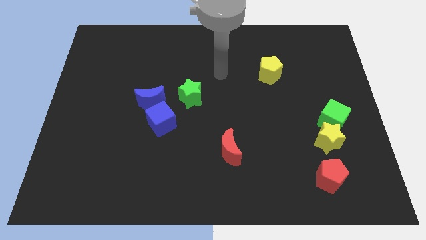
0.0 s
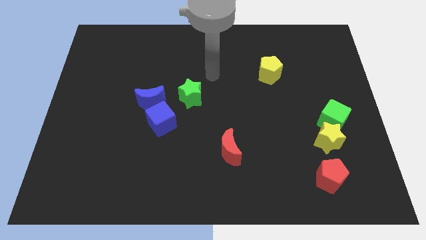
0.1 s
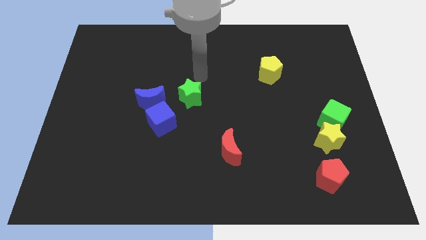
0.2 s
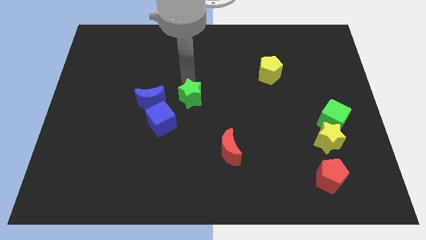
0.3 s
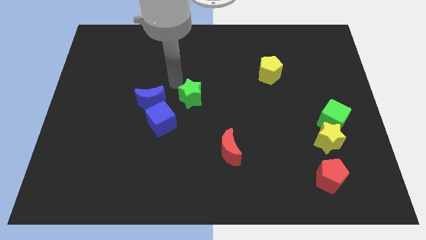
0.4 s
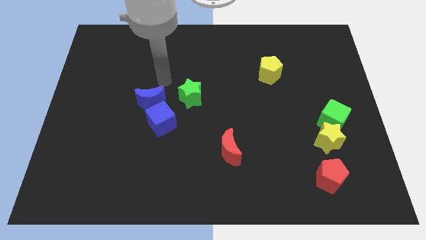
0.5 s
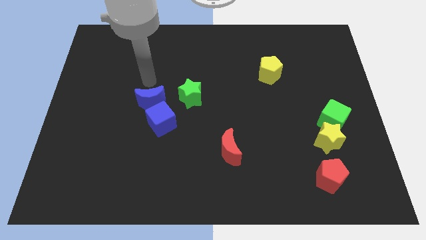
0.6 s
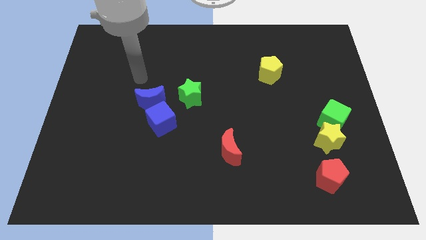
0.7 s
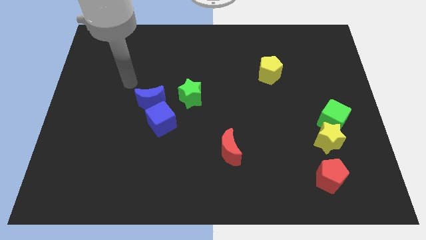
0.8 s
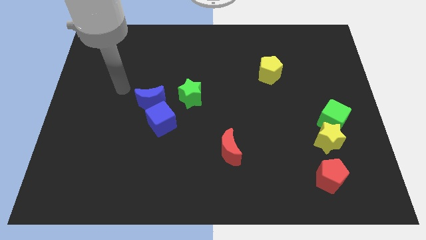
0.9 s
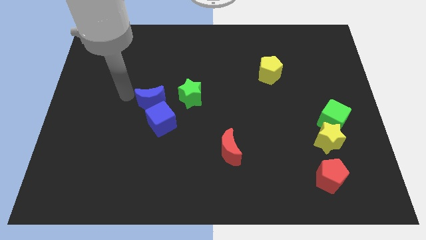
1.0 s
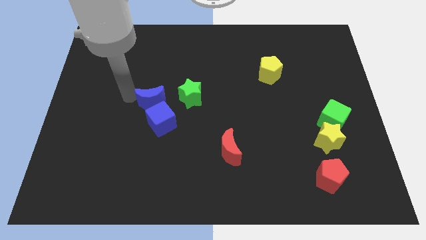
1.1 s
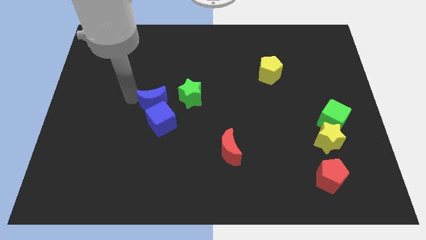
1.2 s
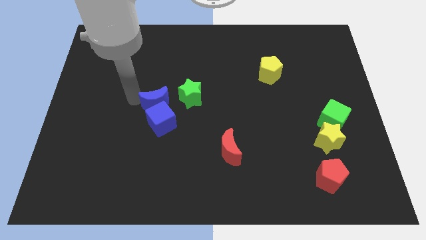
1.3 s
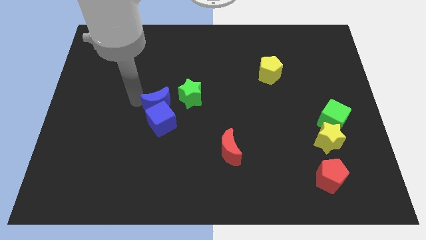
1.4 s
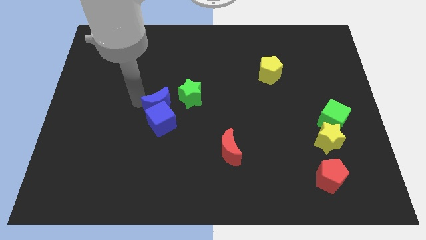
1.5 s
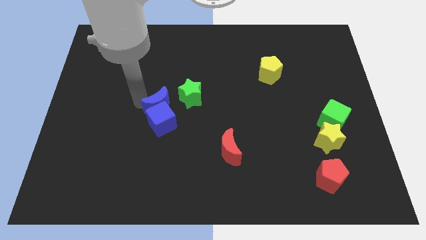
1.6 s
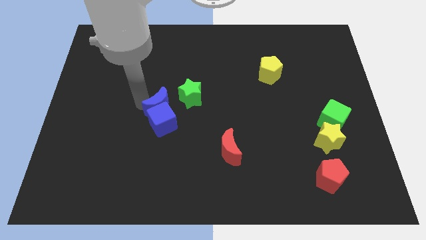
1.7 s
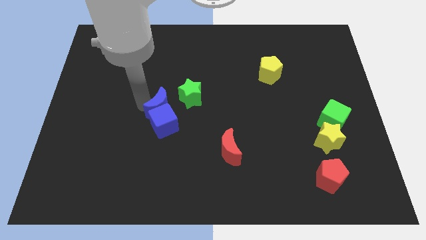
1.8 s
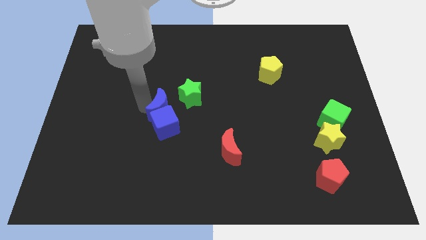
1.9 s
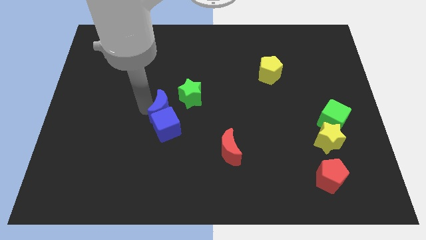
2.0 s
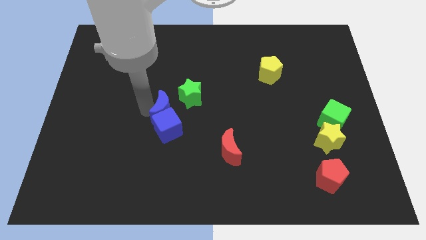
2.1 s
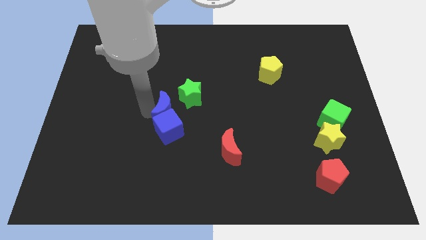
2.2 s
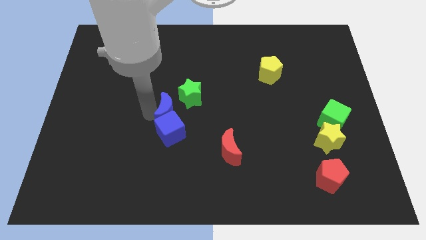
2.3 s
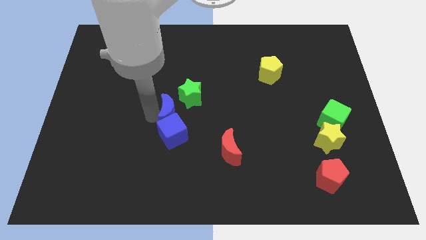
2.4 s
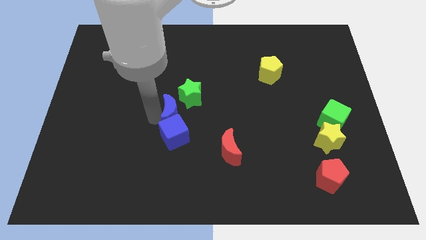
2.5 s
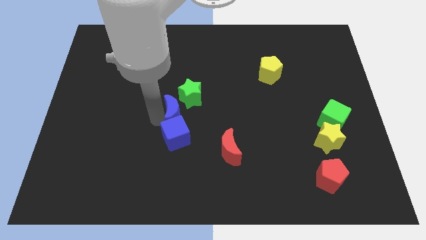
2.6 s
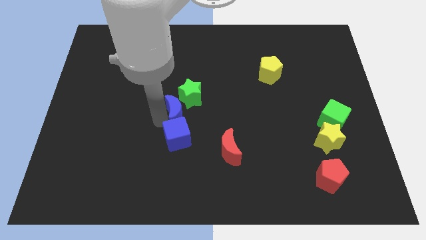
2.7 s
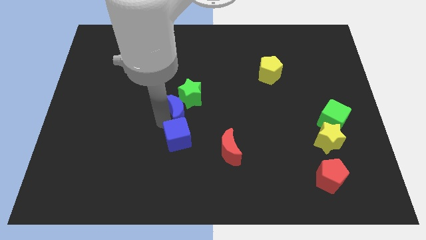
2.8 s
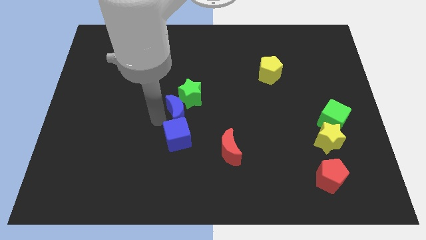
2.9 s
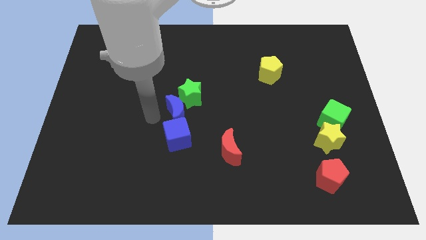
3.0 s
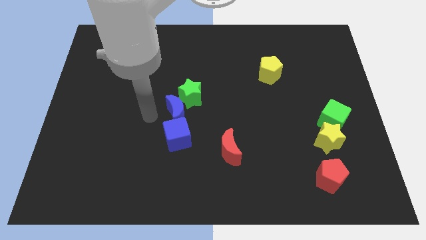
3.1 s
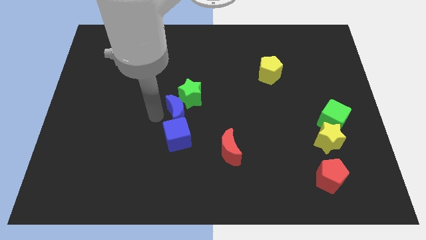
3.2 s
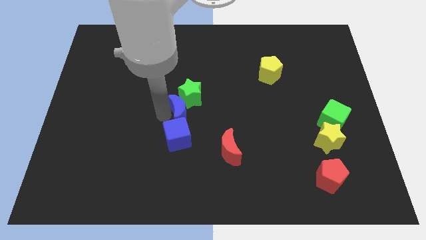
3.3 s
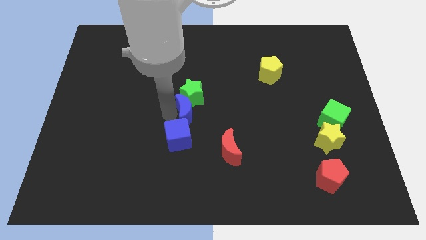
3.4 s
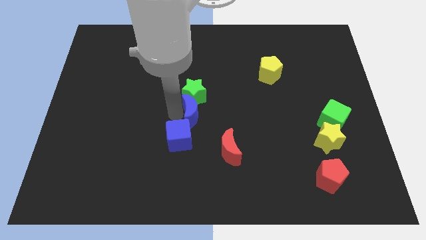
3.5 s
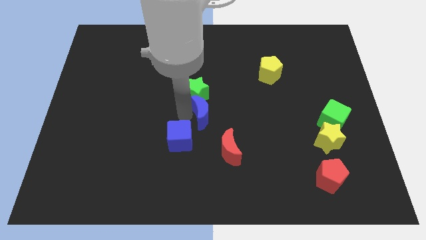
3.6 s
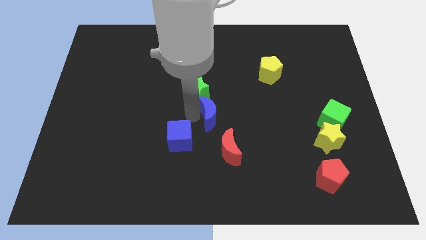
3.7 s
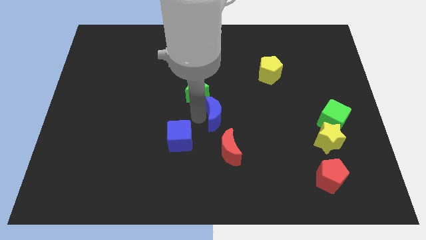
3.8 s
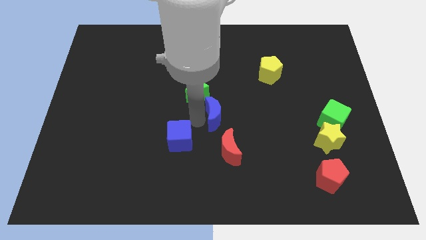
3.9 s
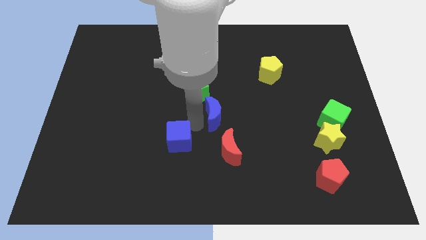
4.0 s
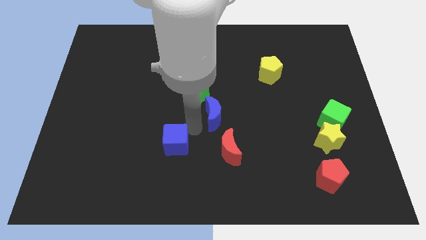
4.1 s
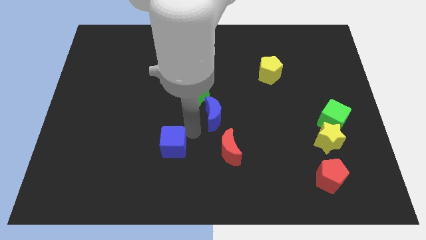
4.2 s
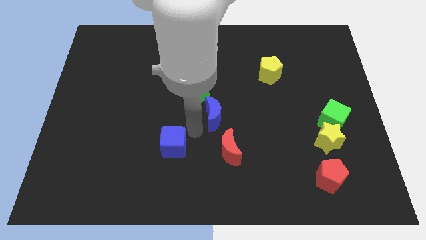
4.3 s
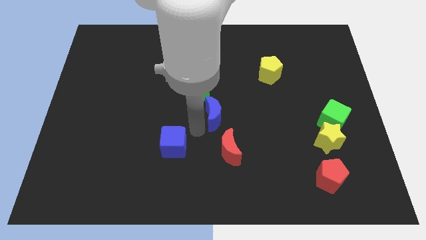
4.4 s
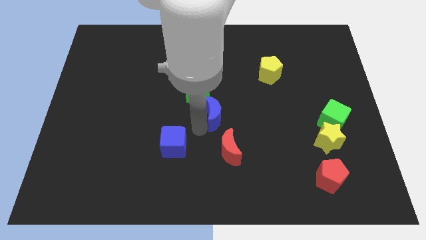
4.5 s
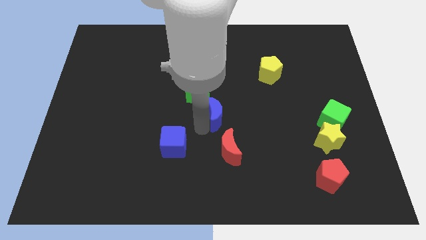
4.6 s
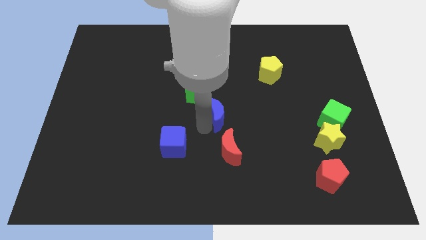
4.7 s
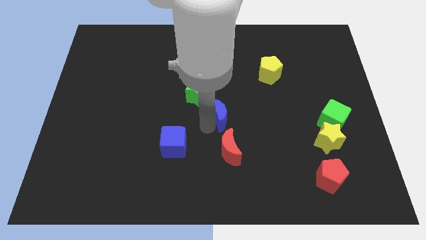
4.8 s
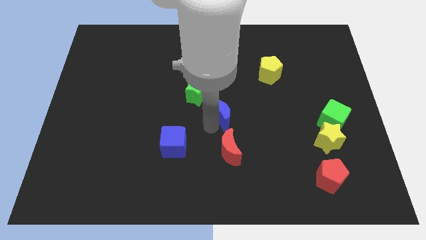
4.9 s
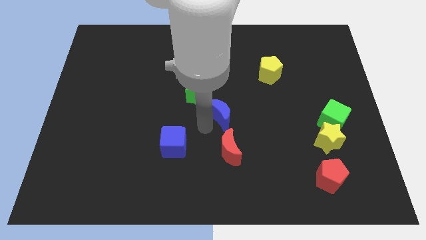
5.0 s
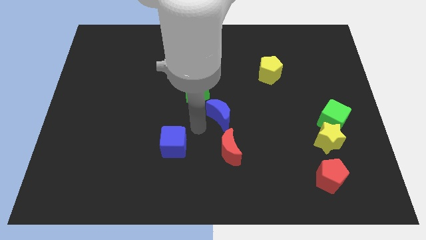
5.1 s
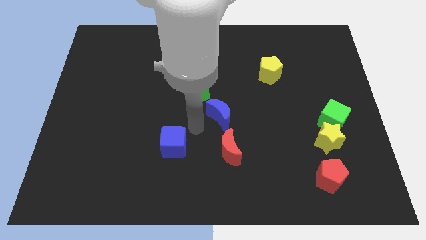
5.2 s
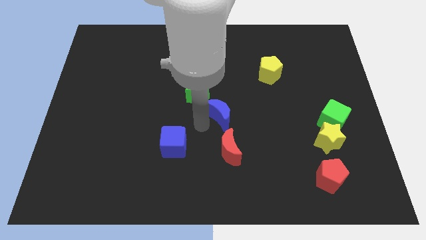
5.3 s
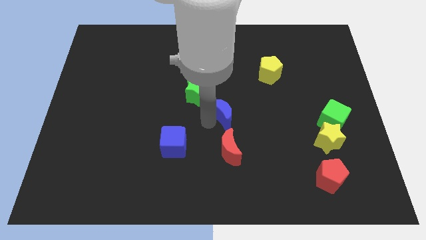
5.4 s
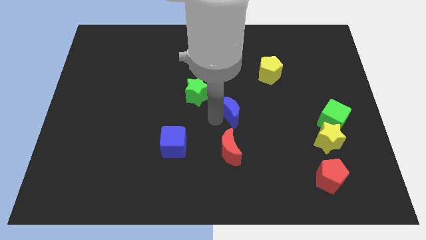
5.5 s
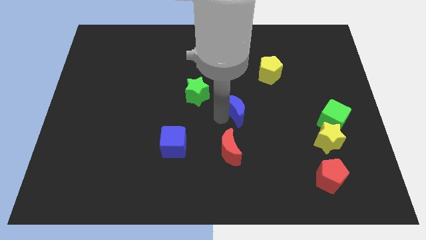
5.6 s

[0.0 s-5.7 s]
slide the blue moon right

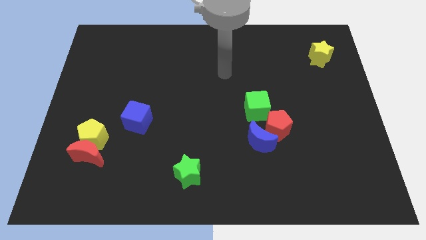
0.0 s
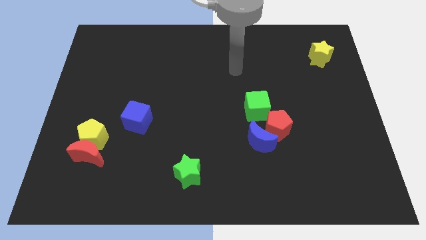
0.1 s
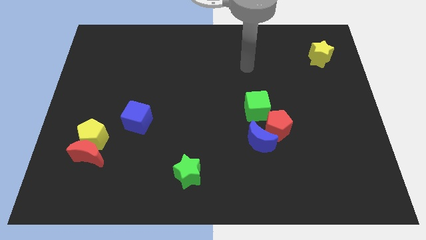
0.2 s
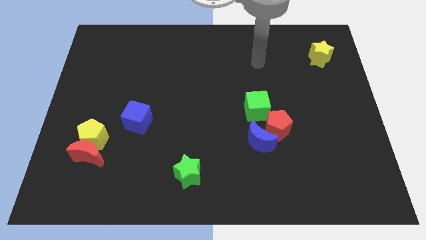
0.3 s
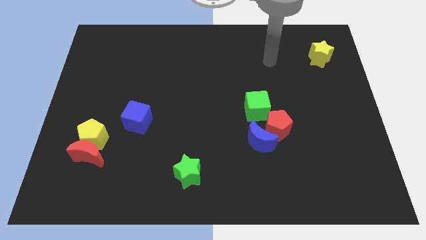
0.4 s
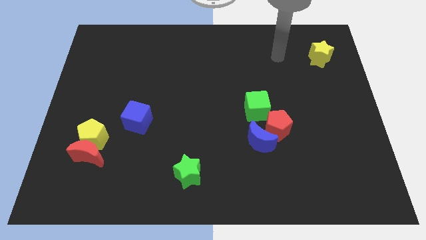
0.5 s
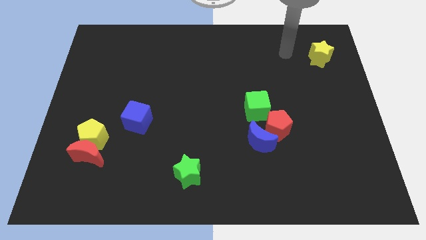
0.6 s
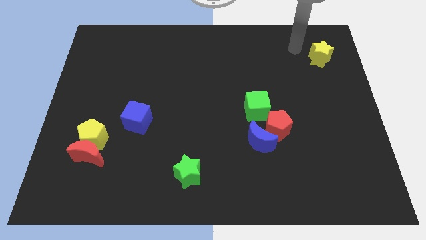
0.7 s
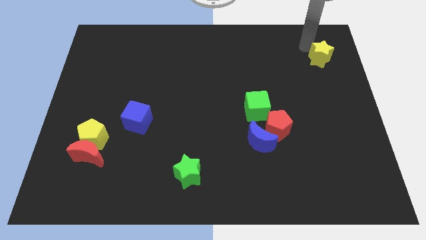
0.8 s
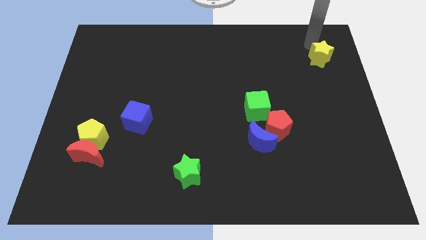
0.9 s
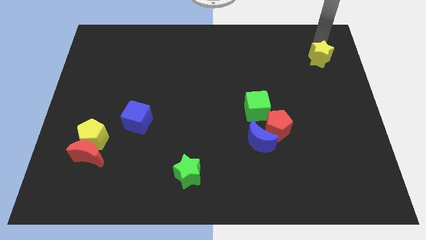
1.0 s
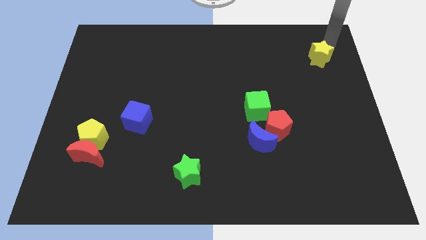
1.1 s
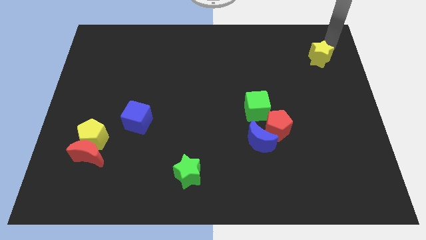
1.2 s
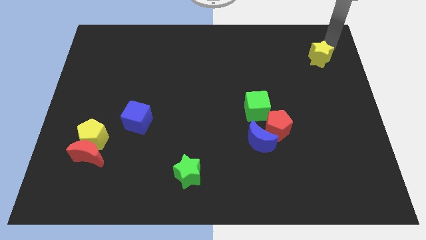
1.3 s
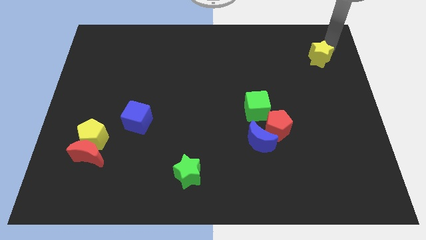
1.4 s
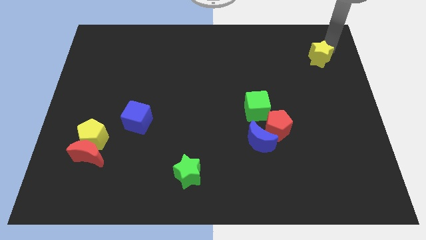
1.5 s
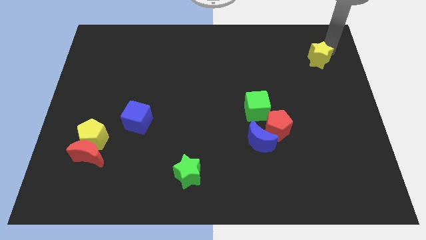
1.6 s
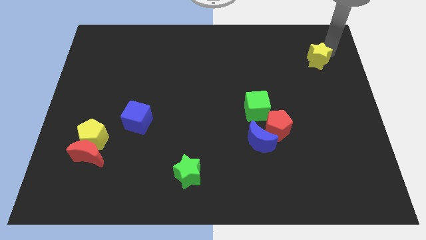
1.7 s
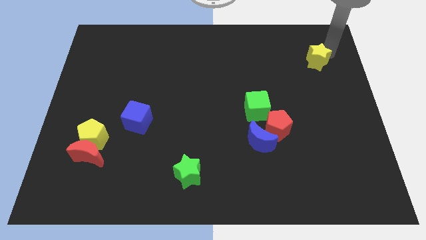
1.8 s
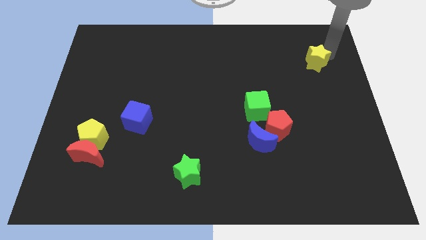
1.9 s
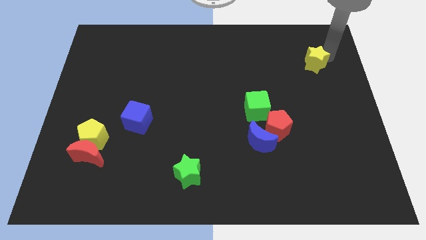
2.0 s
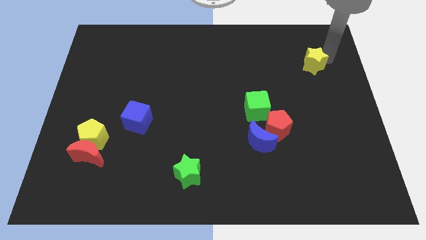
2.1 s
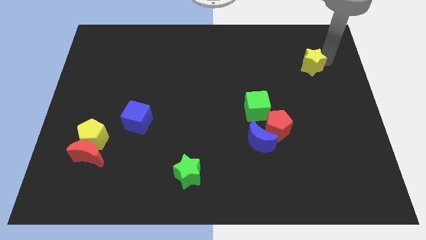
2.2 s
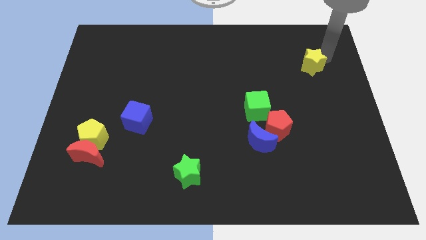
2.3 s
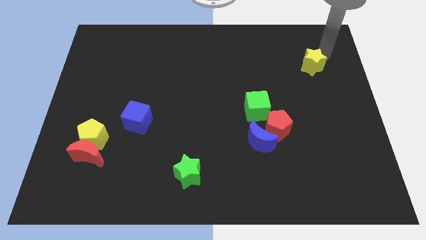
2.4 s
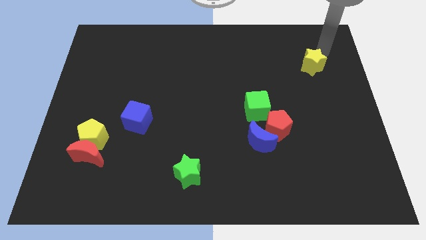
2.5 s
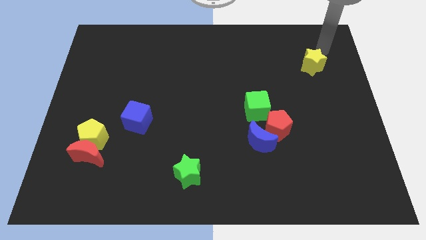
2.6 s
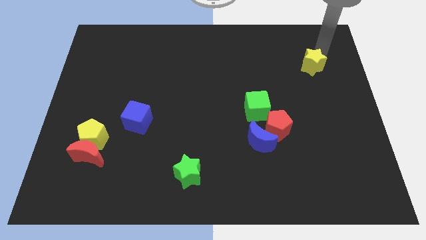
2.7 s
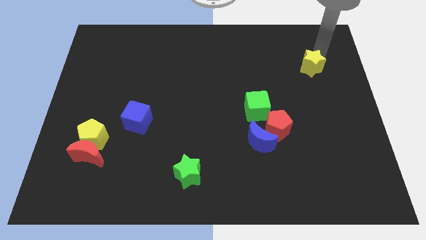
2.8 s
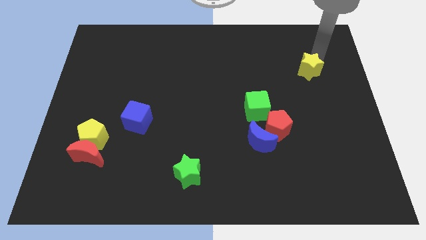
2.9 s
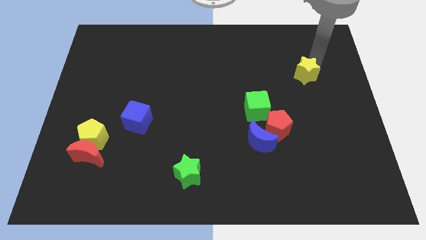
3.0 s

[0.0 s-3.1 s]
slightly slide the yellow star downwards and then left
